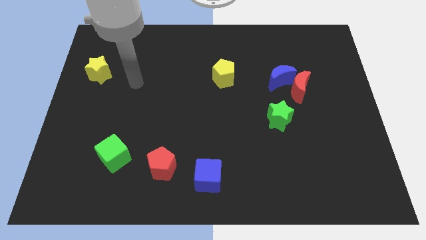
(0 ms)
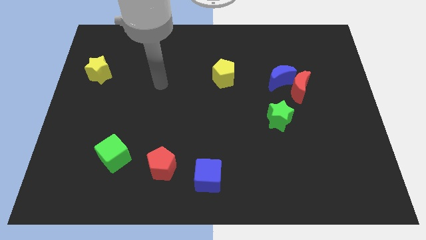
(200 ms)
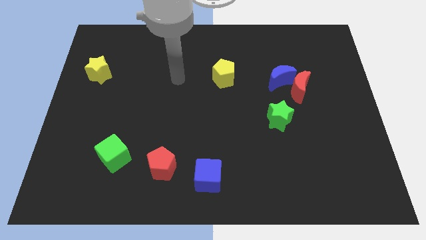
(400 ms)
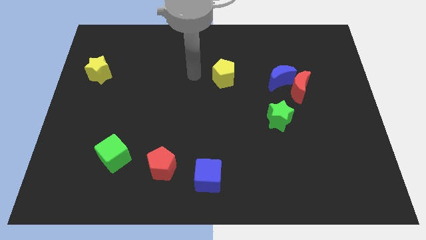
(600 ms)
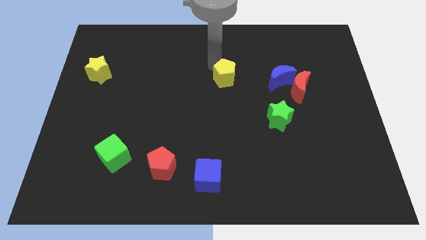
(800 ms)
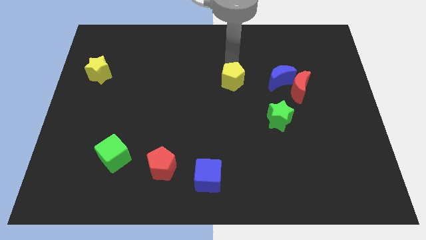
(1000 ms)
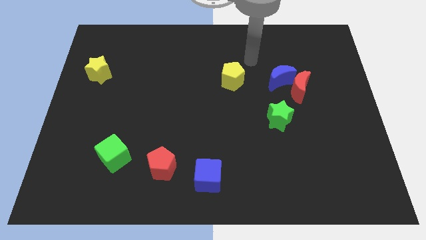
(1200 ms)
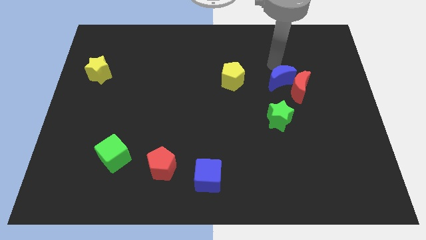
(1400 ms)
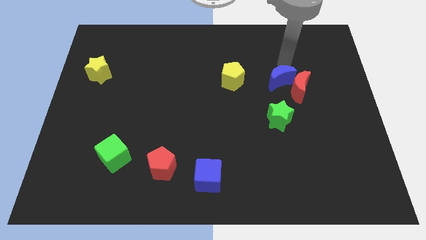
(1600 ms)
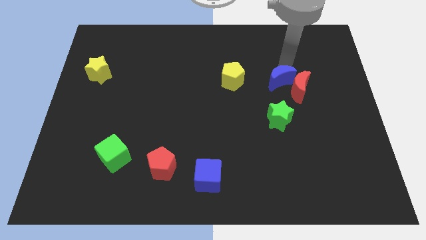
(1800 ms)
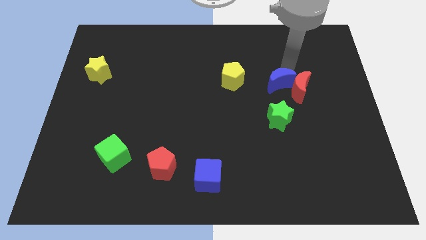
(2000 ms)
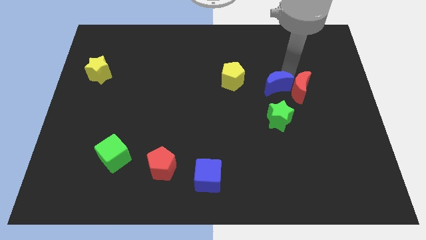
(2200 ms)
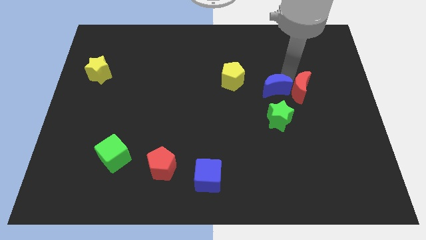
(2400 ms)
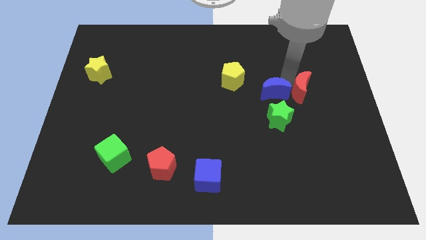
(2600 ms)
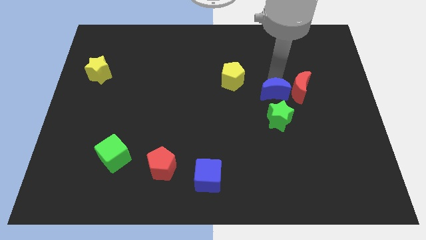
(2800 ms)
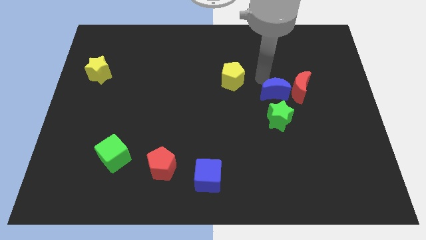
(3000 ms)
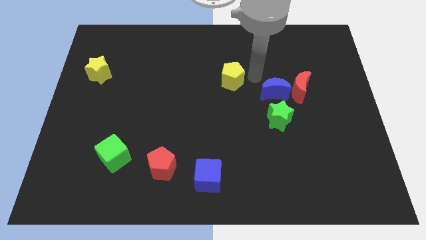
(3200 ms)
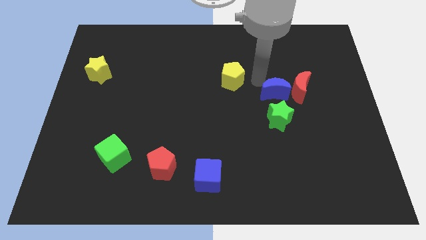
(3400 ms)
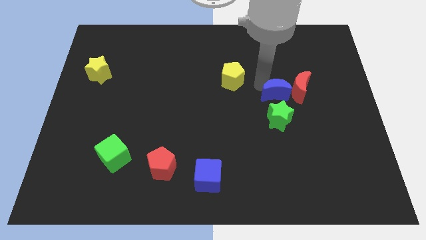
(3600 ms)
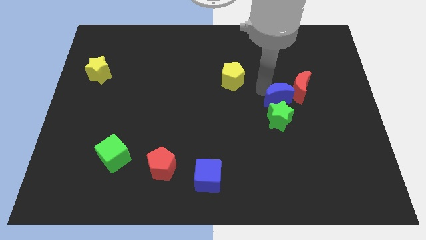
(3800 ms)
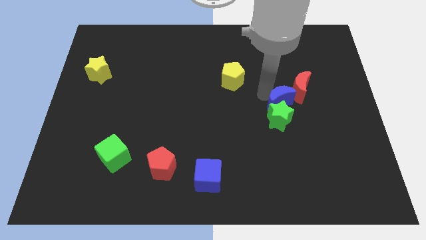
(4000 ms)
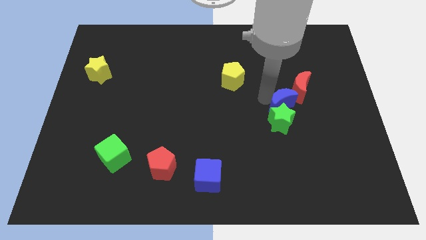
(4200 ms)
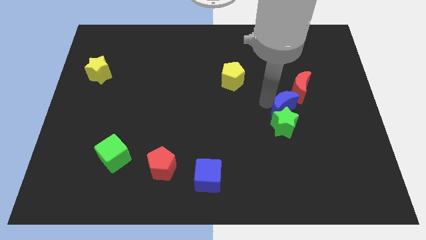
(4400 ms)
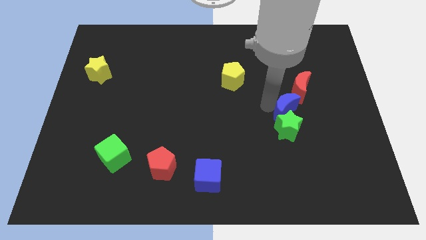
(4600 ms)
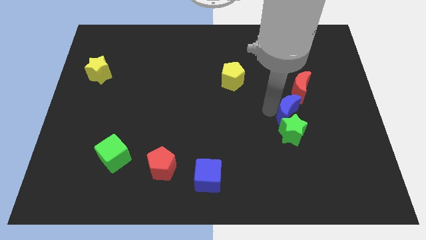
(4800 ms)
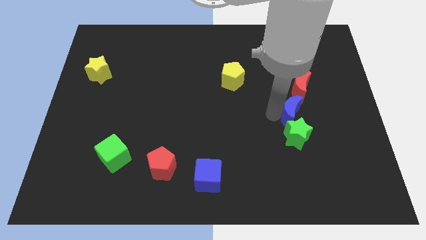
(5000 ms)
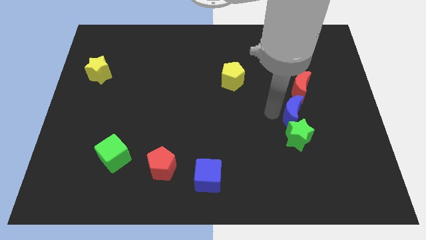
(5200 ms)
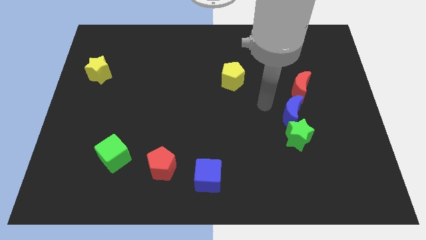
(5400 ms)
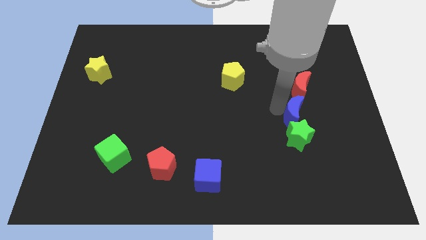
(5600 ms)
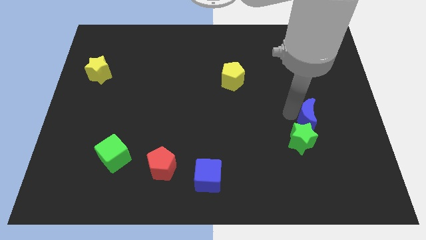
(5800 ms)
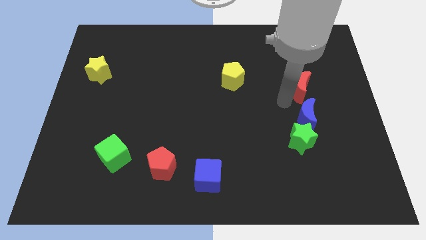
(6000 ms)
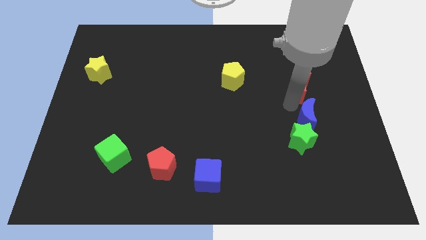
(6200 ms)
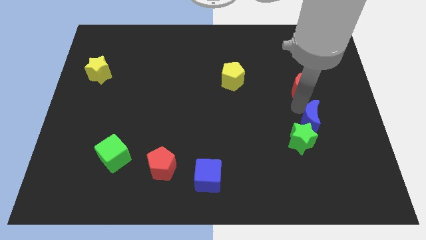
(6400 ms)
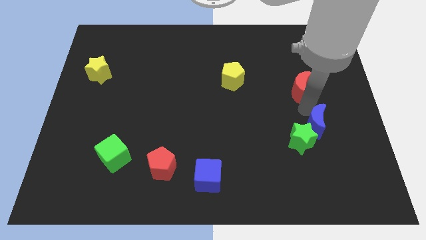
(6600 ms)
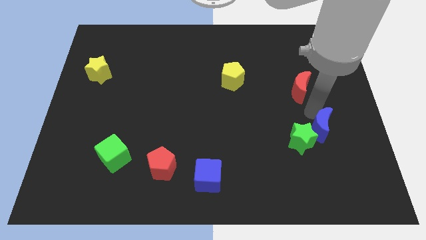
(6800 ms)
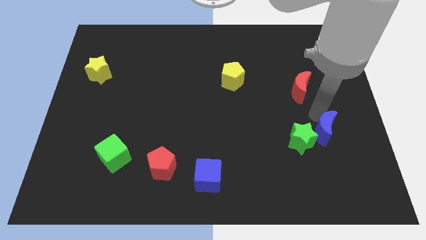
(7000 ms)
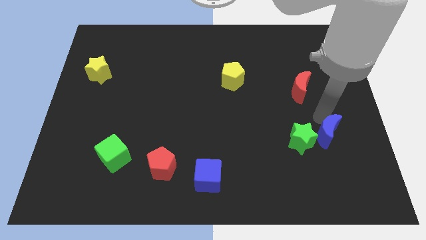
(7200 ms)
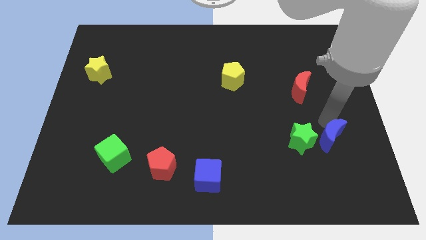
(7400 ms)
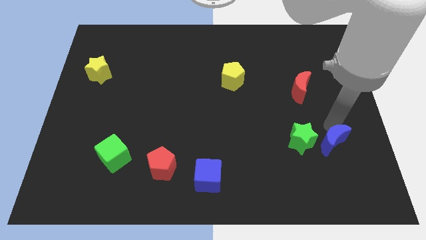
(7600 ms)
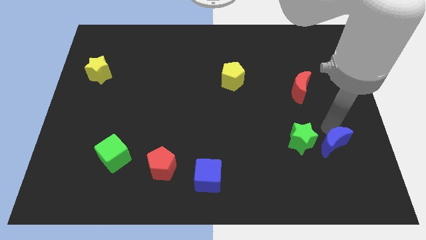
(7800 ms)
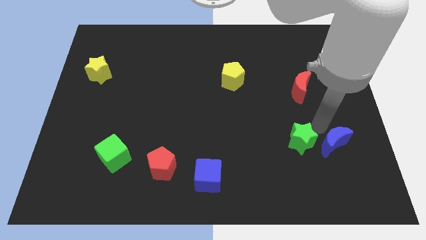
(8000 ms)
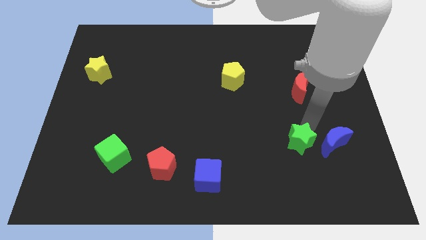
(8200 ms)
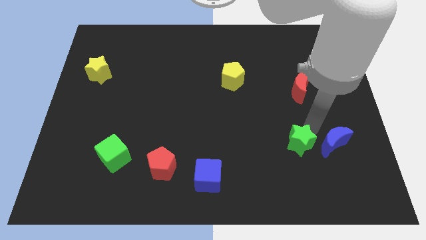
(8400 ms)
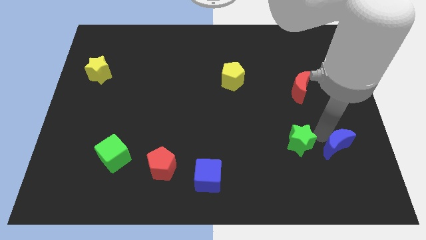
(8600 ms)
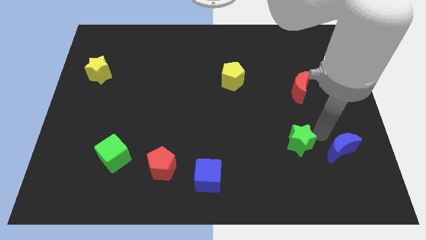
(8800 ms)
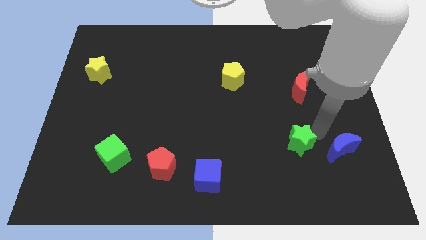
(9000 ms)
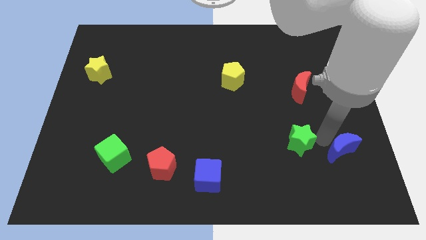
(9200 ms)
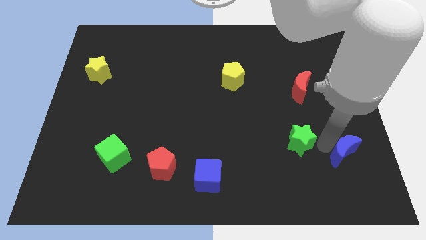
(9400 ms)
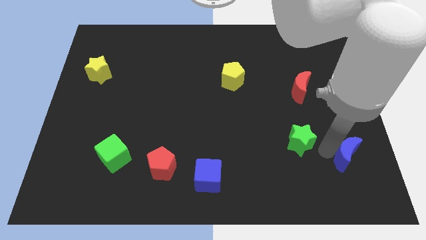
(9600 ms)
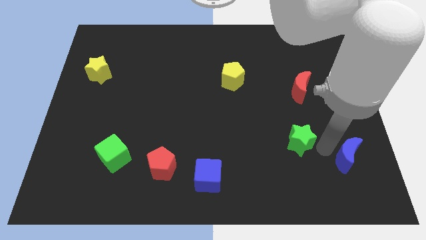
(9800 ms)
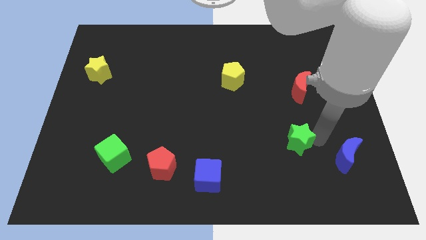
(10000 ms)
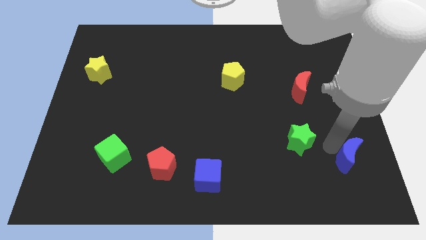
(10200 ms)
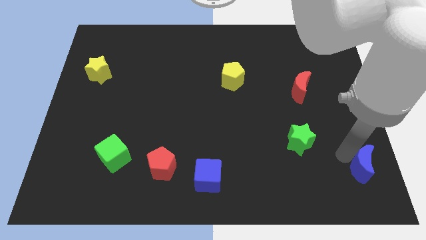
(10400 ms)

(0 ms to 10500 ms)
put the blue moon to the bottom right

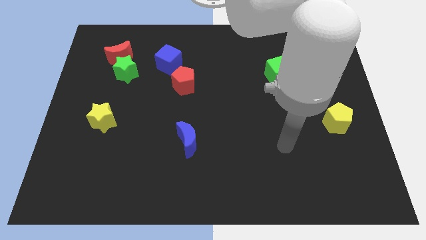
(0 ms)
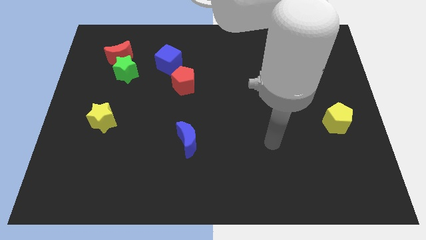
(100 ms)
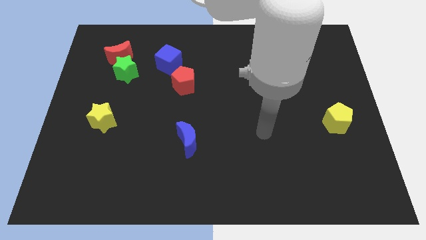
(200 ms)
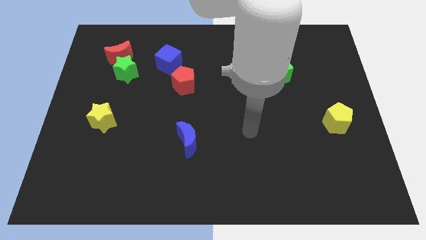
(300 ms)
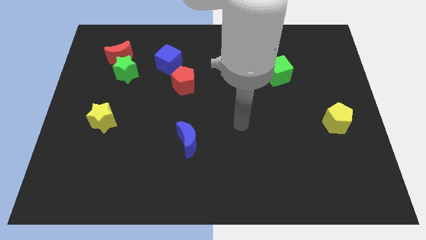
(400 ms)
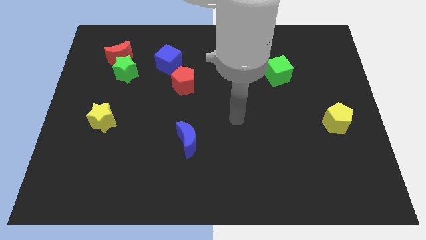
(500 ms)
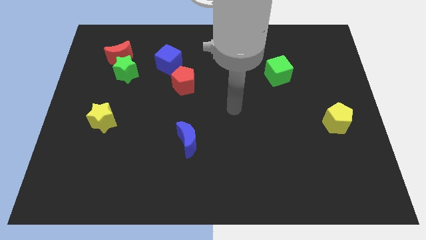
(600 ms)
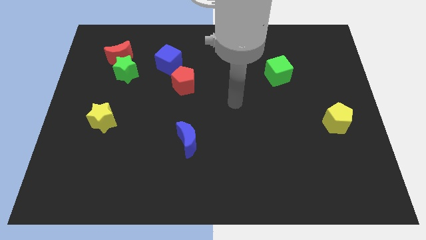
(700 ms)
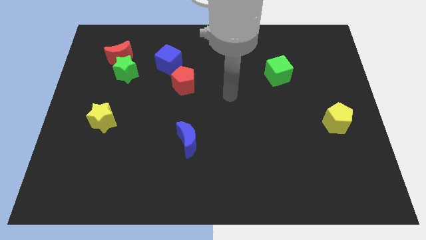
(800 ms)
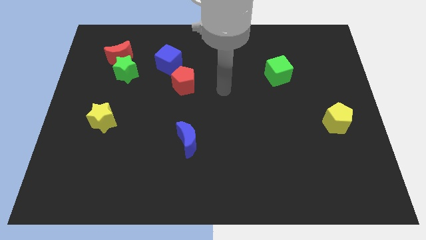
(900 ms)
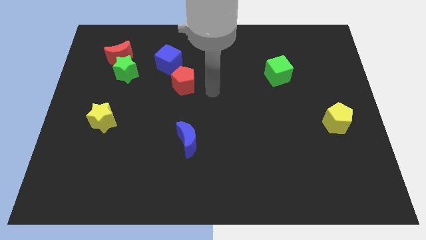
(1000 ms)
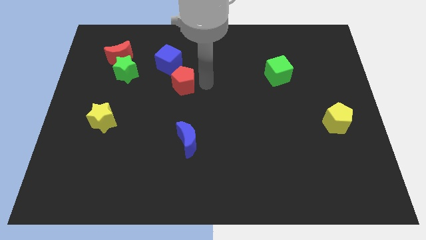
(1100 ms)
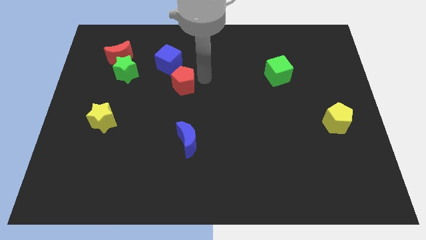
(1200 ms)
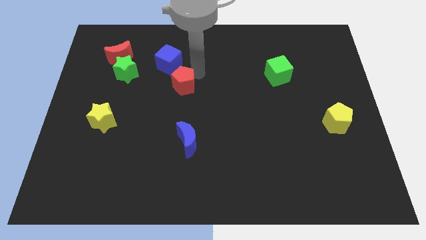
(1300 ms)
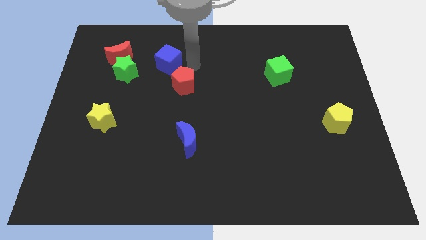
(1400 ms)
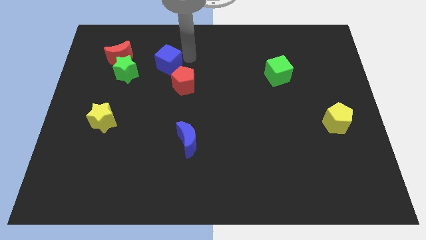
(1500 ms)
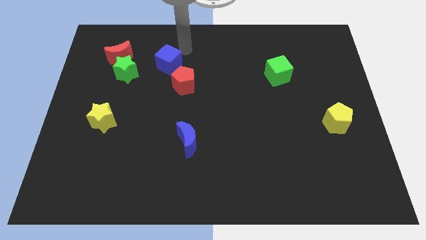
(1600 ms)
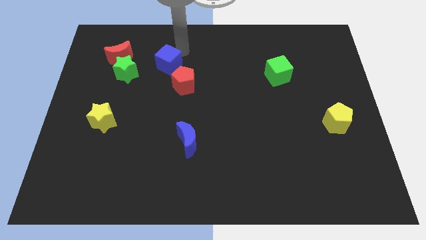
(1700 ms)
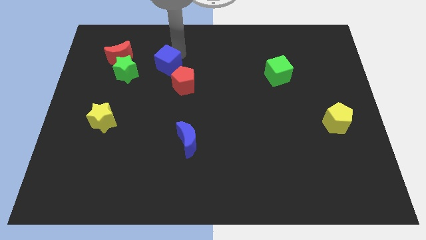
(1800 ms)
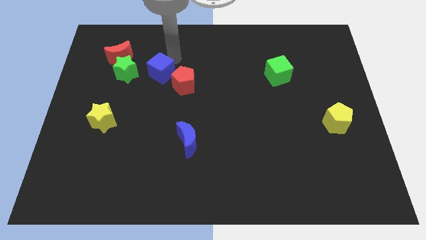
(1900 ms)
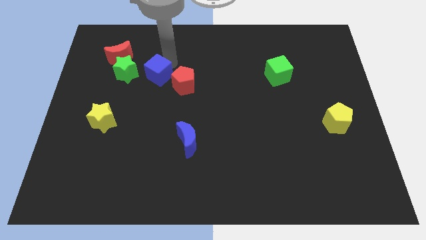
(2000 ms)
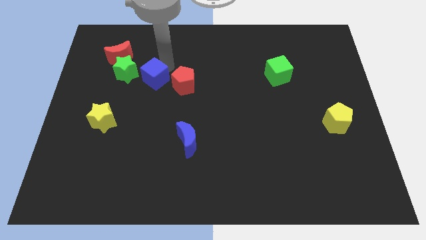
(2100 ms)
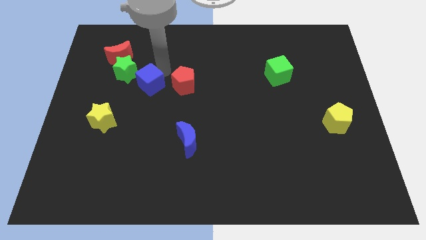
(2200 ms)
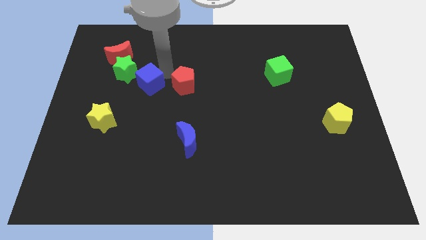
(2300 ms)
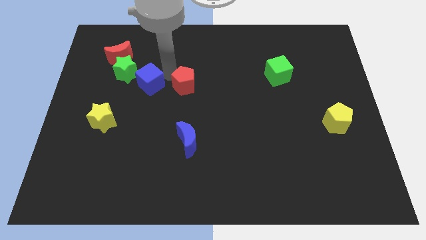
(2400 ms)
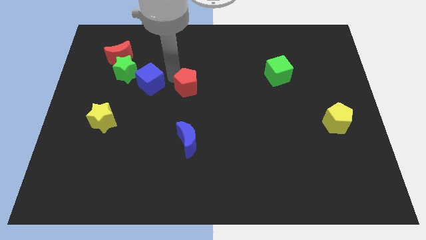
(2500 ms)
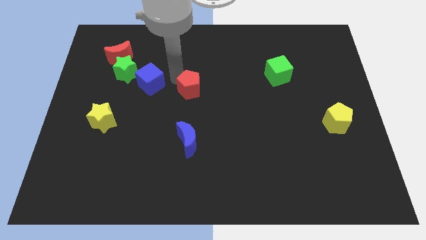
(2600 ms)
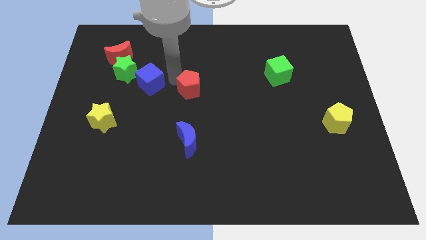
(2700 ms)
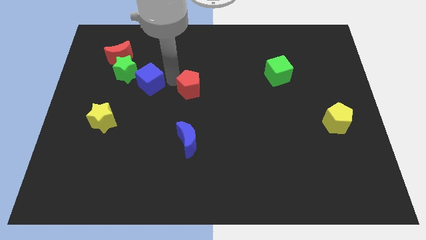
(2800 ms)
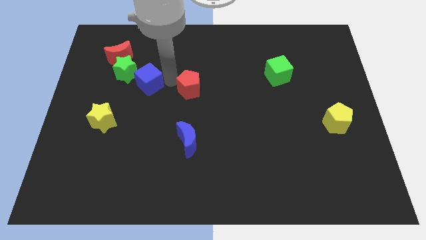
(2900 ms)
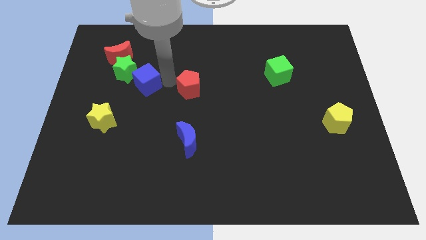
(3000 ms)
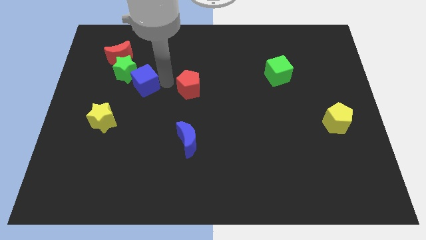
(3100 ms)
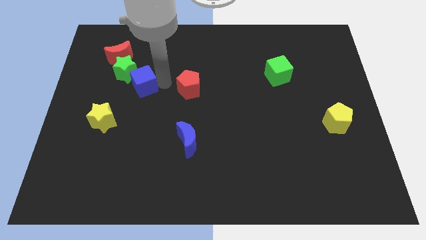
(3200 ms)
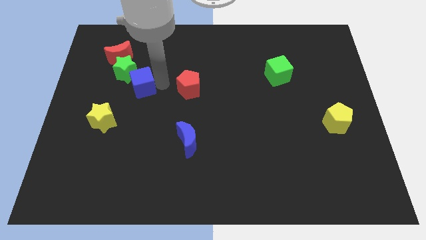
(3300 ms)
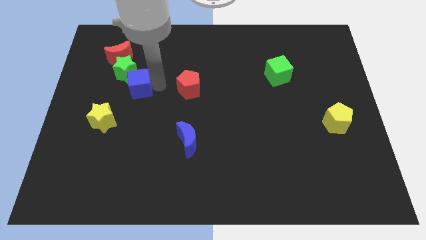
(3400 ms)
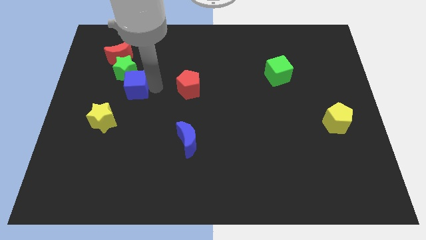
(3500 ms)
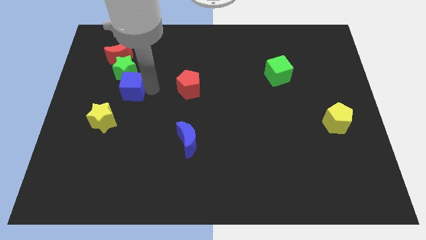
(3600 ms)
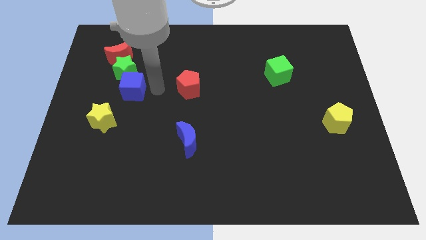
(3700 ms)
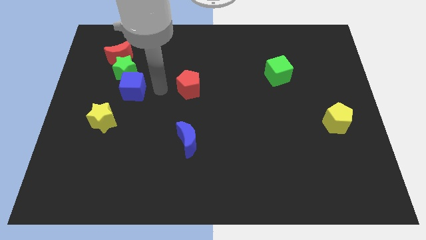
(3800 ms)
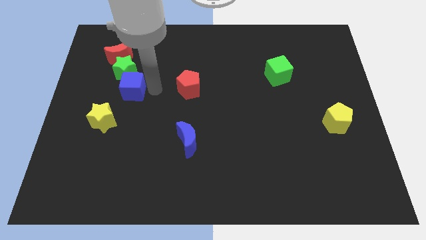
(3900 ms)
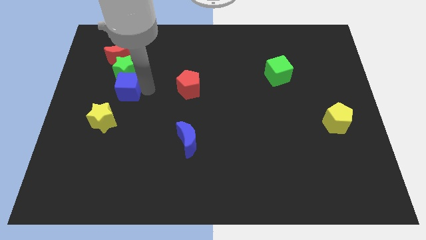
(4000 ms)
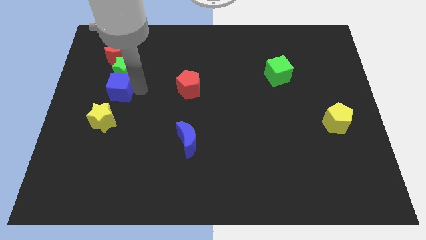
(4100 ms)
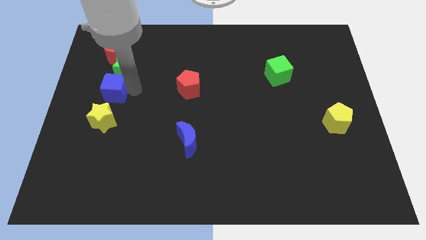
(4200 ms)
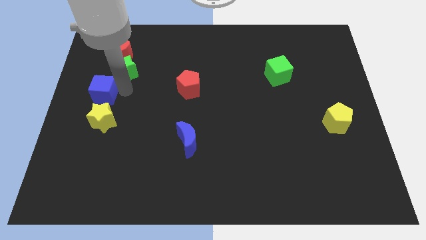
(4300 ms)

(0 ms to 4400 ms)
move the blue cube to the left side
